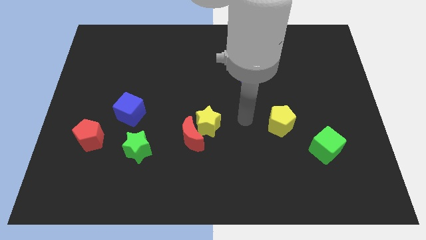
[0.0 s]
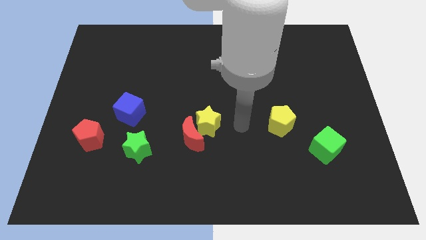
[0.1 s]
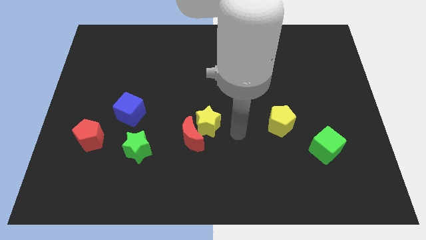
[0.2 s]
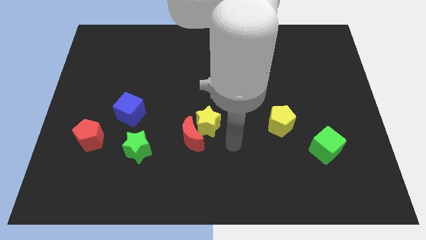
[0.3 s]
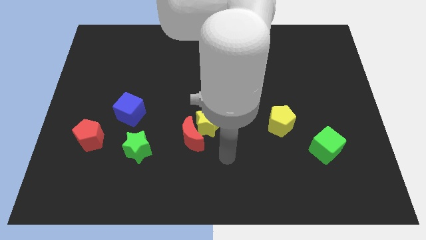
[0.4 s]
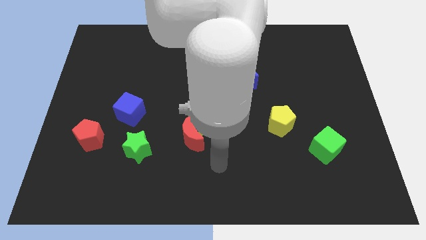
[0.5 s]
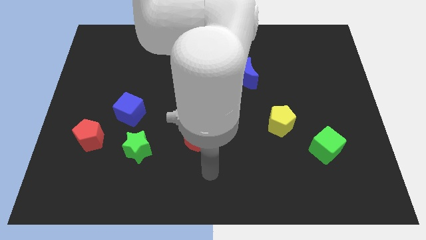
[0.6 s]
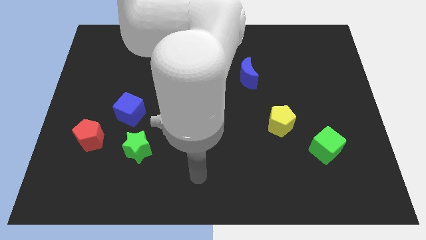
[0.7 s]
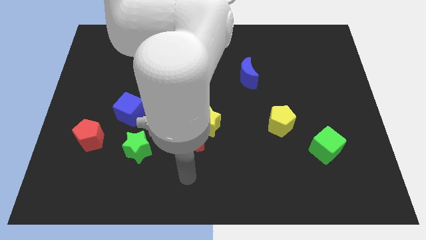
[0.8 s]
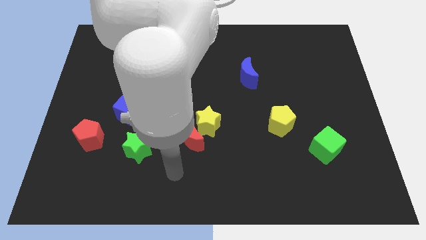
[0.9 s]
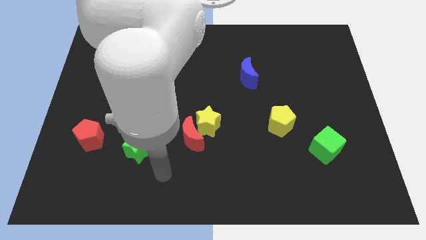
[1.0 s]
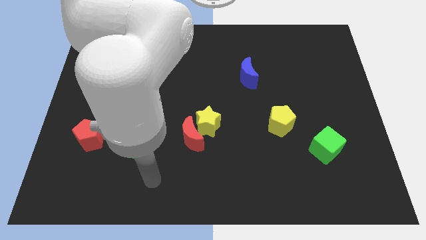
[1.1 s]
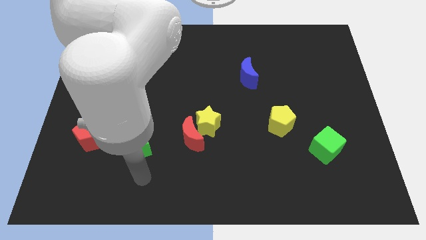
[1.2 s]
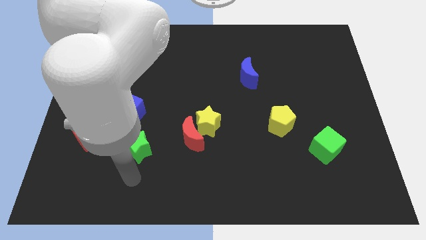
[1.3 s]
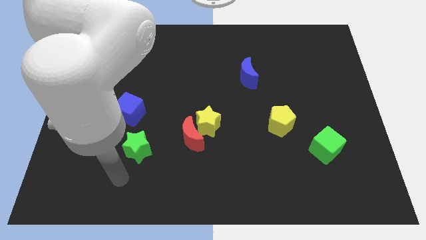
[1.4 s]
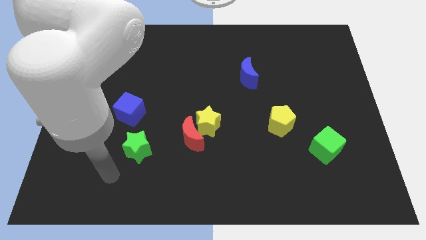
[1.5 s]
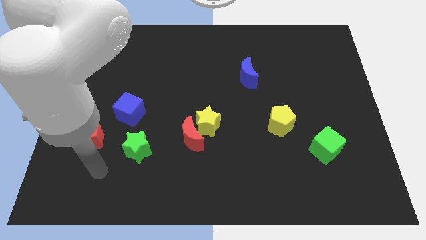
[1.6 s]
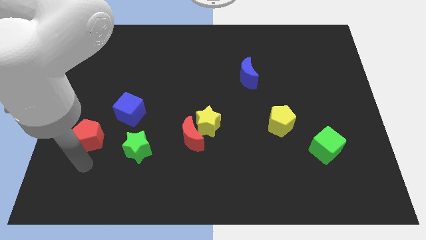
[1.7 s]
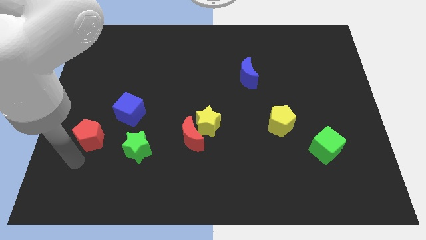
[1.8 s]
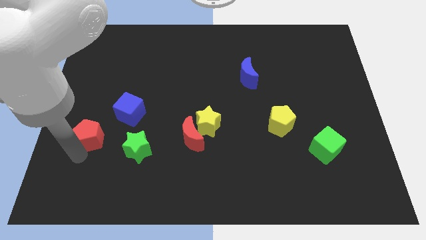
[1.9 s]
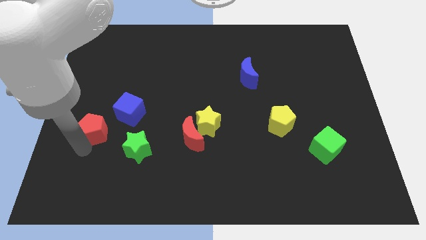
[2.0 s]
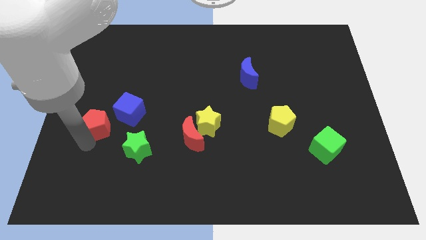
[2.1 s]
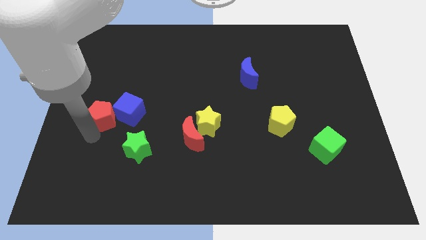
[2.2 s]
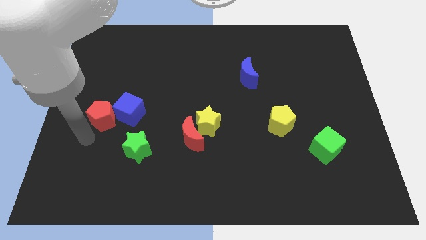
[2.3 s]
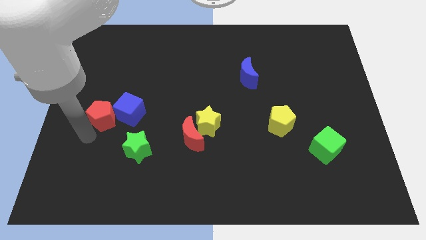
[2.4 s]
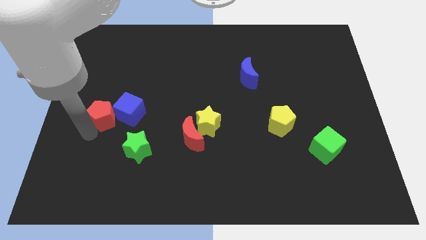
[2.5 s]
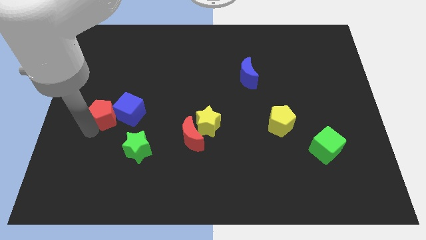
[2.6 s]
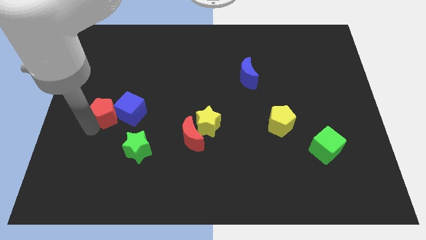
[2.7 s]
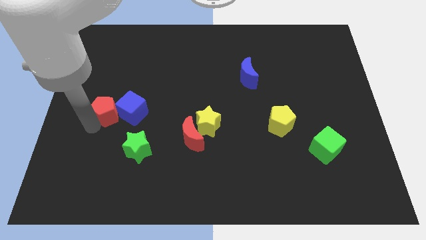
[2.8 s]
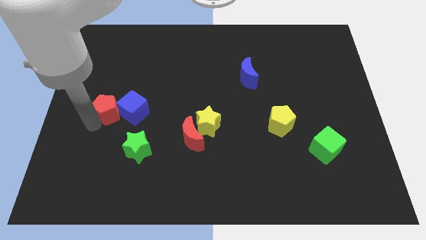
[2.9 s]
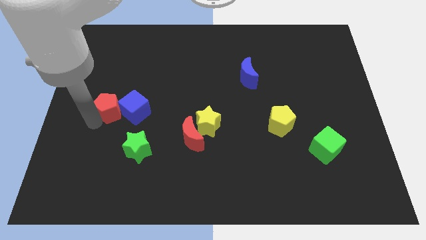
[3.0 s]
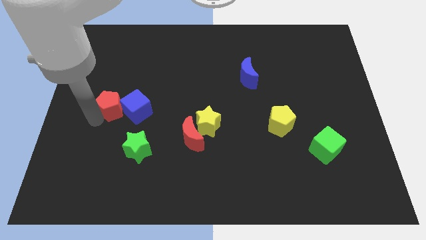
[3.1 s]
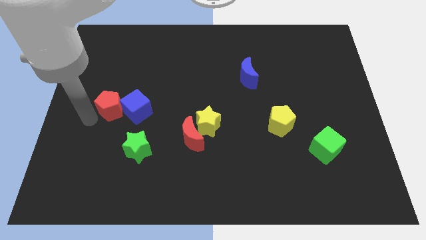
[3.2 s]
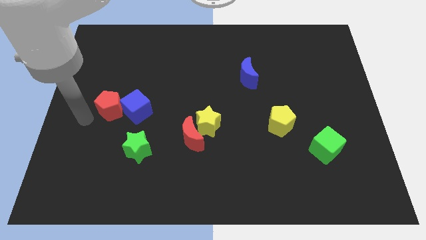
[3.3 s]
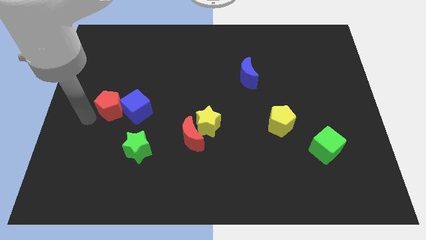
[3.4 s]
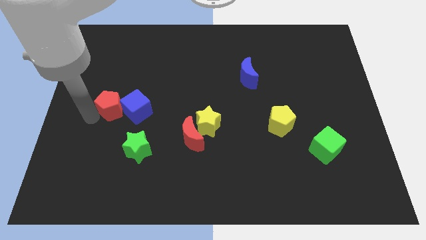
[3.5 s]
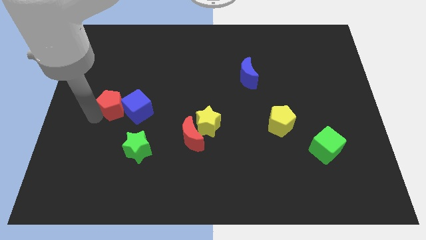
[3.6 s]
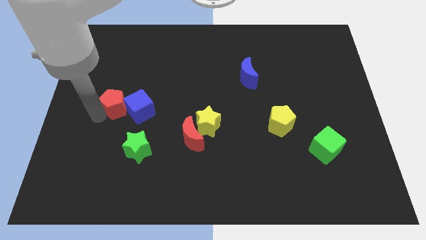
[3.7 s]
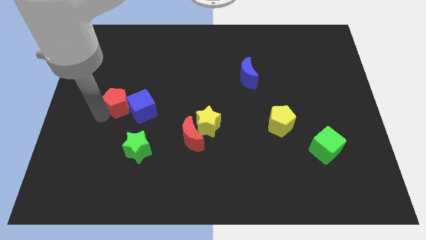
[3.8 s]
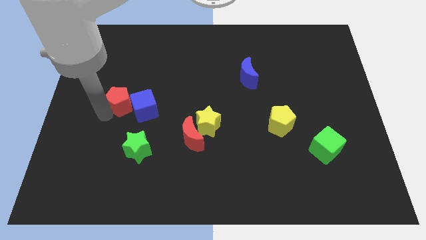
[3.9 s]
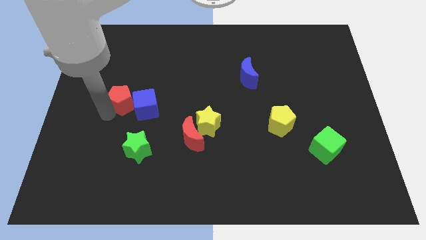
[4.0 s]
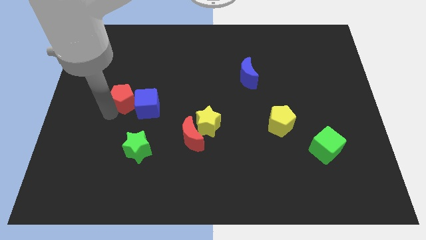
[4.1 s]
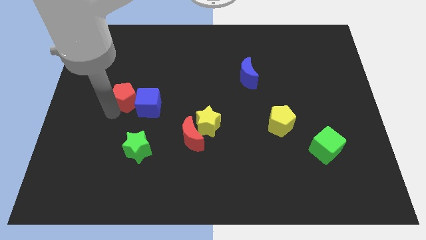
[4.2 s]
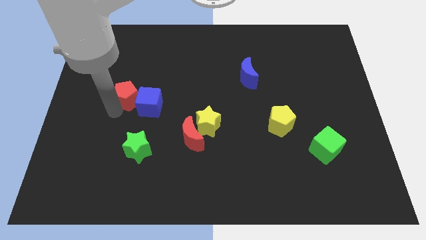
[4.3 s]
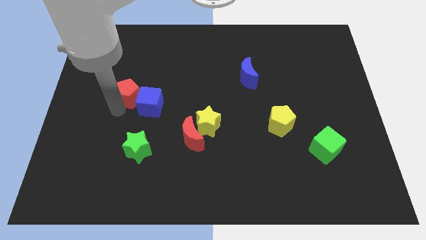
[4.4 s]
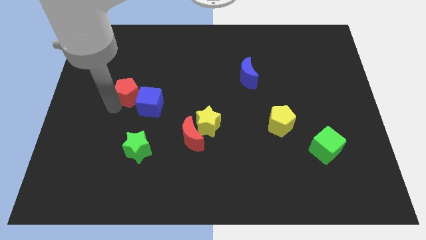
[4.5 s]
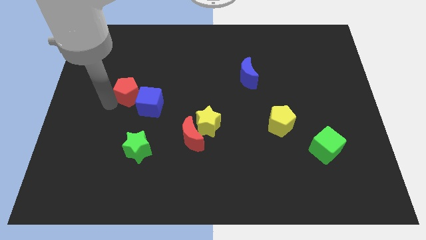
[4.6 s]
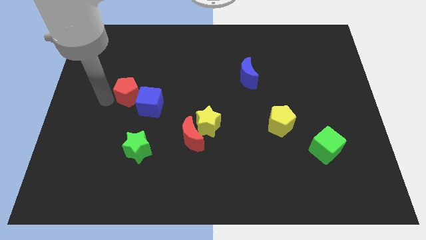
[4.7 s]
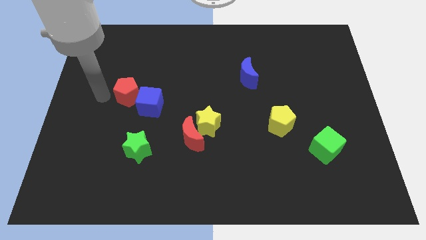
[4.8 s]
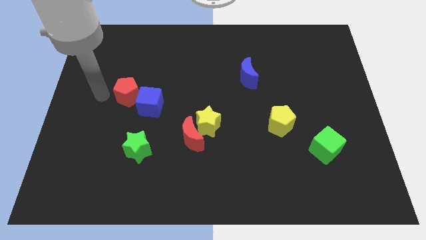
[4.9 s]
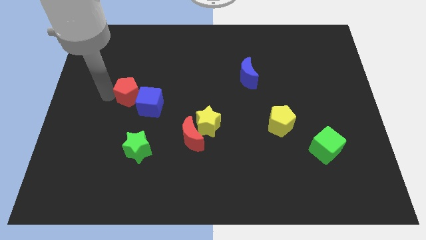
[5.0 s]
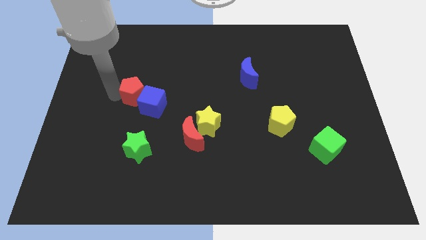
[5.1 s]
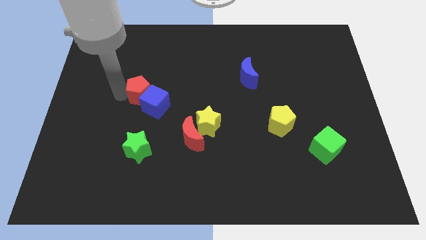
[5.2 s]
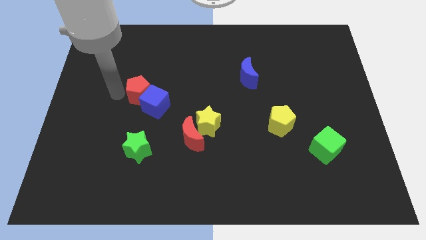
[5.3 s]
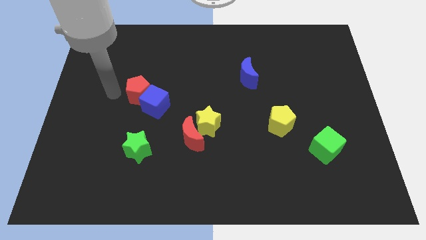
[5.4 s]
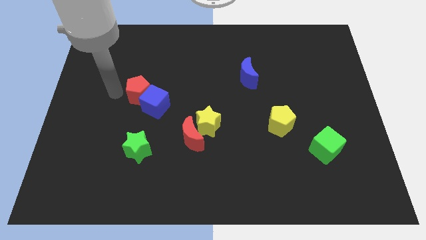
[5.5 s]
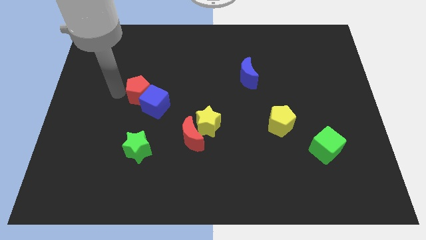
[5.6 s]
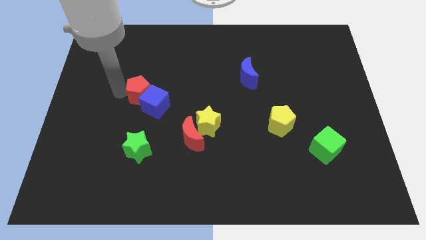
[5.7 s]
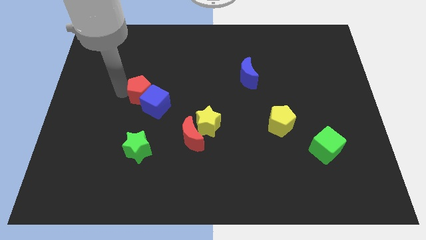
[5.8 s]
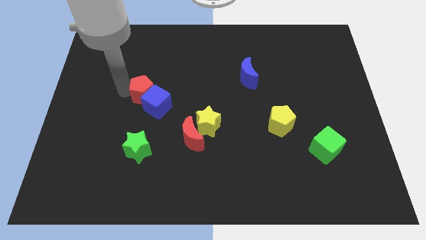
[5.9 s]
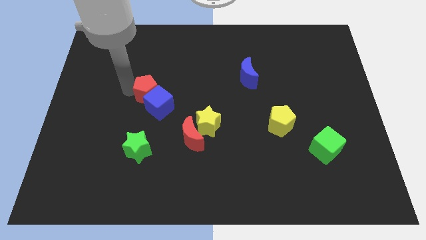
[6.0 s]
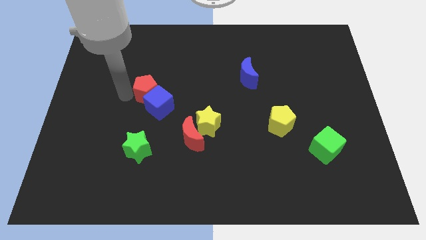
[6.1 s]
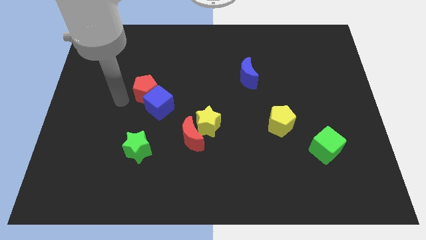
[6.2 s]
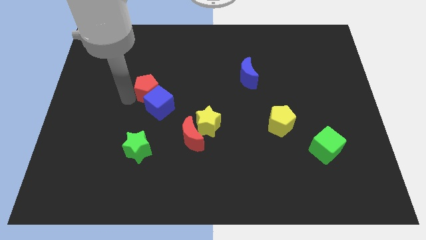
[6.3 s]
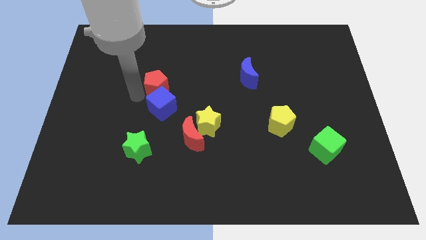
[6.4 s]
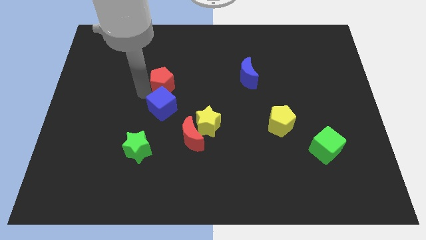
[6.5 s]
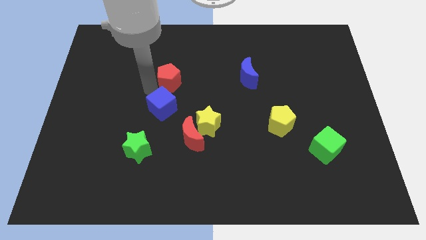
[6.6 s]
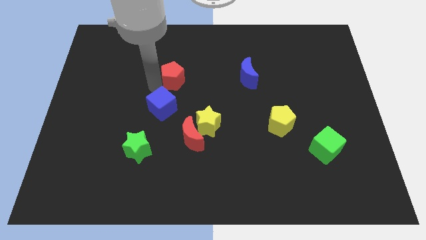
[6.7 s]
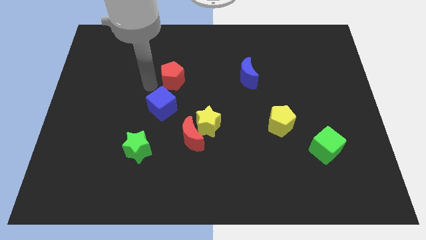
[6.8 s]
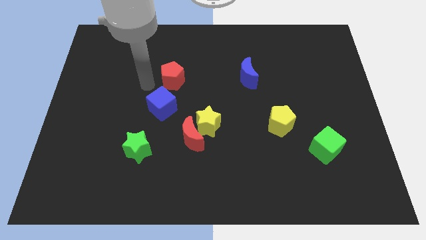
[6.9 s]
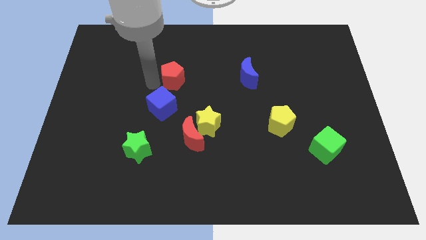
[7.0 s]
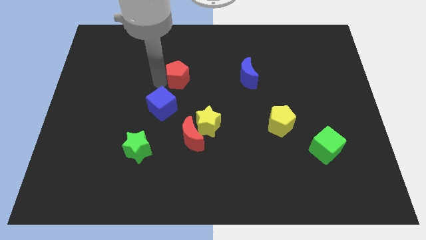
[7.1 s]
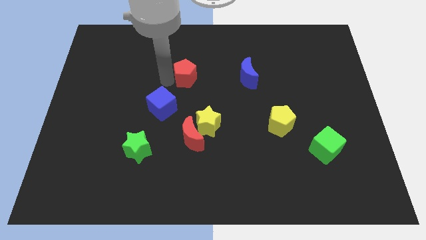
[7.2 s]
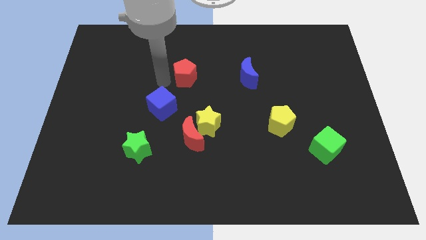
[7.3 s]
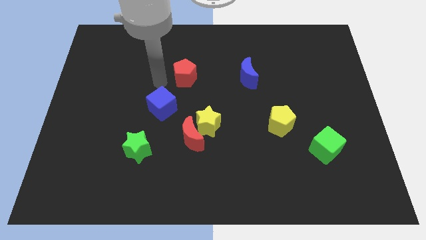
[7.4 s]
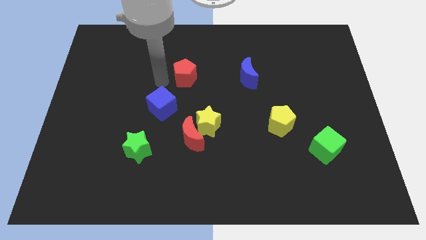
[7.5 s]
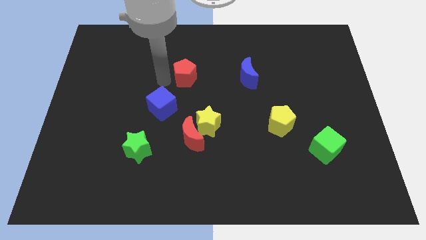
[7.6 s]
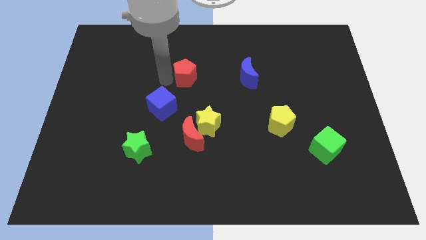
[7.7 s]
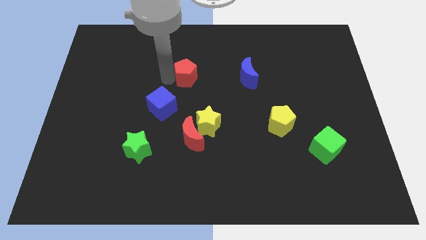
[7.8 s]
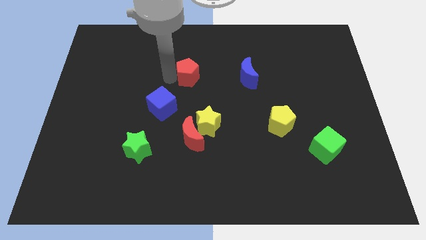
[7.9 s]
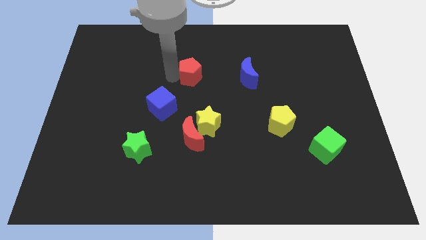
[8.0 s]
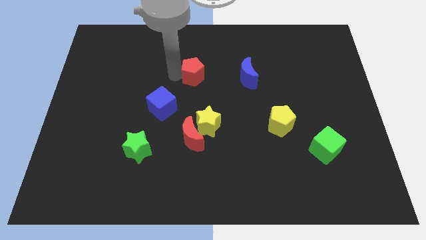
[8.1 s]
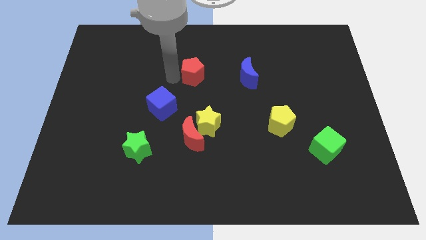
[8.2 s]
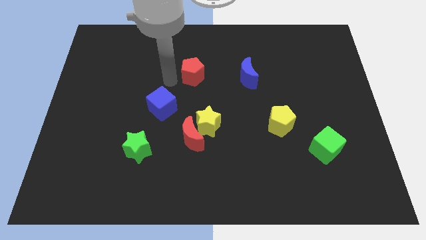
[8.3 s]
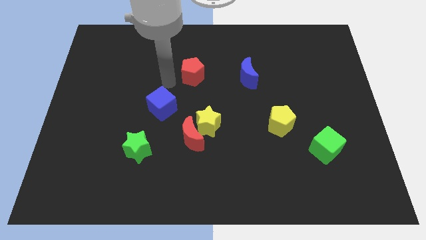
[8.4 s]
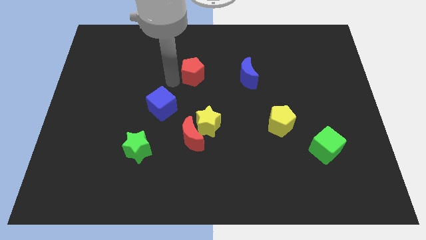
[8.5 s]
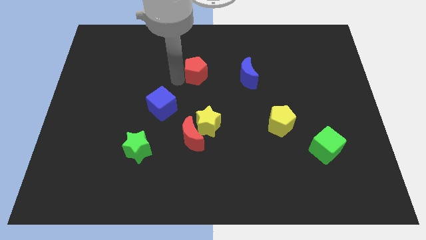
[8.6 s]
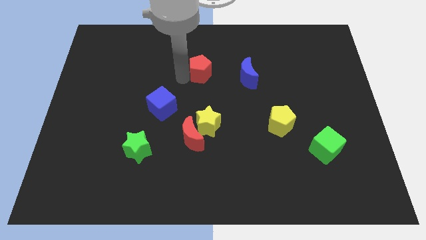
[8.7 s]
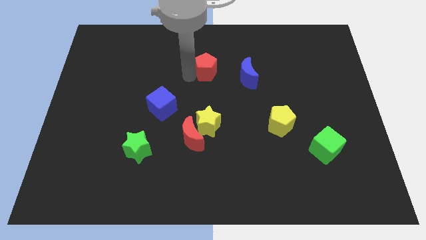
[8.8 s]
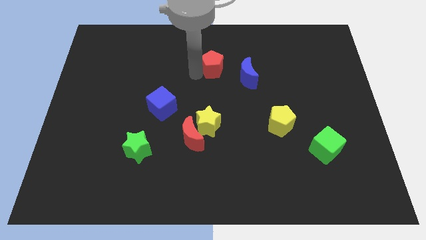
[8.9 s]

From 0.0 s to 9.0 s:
put the red pentagon diagonally up and to the left of the blue moon
